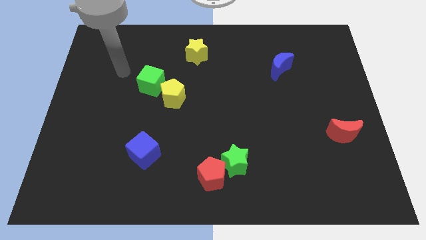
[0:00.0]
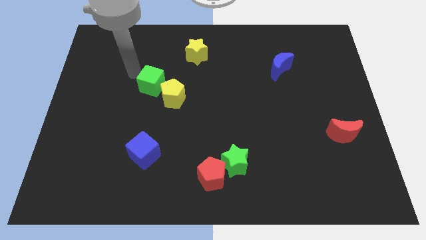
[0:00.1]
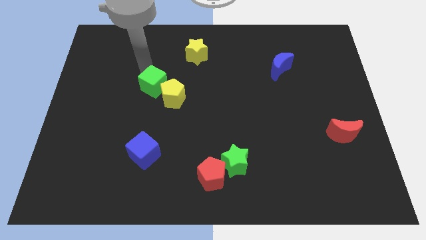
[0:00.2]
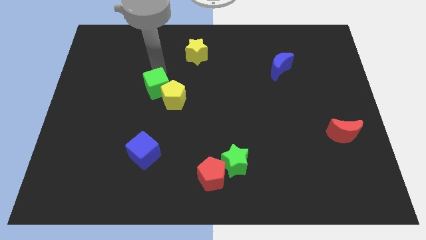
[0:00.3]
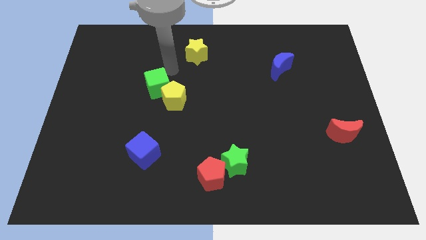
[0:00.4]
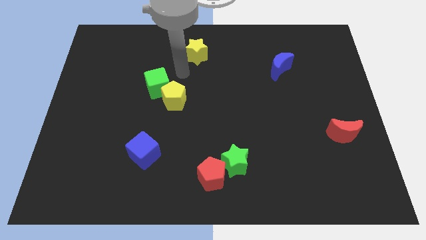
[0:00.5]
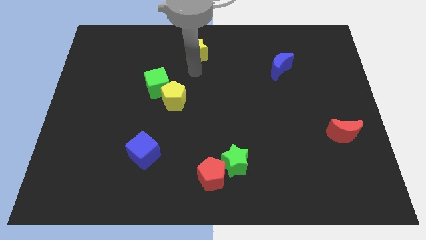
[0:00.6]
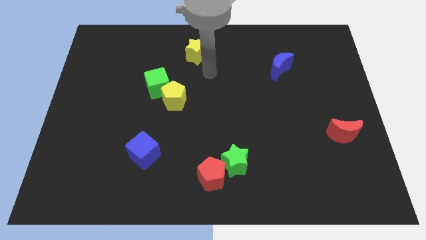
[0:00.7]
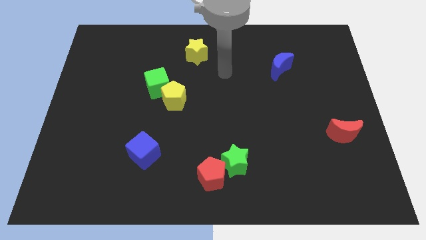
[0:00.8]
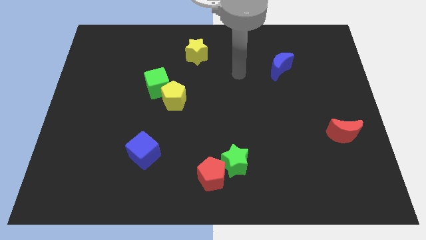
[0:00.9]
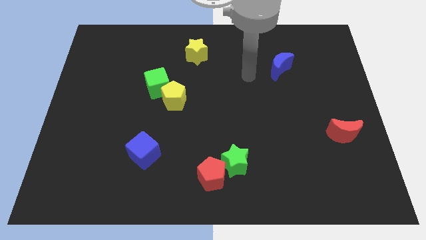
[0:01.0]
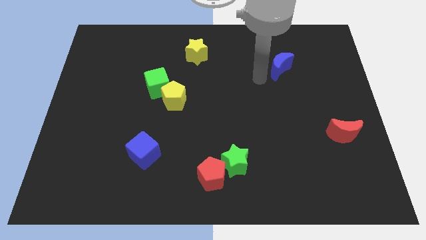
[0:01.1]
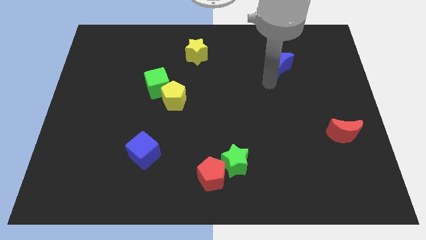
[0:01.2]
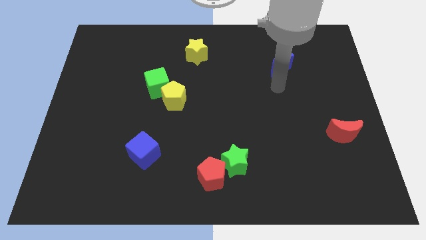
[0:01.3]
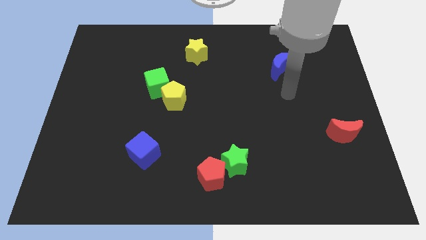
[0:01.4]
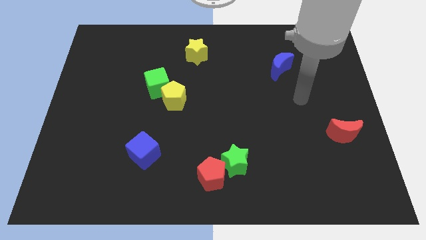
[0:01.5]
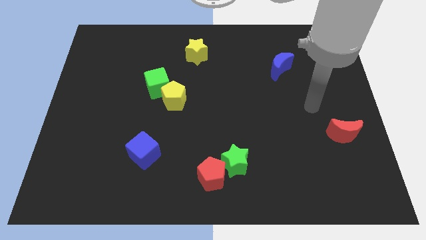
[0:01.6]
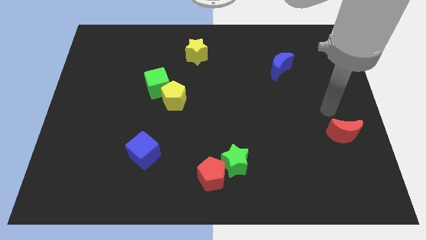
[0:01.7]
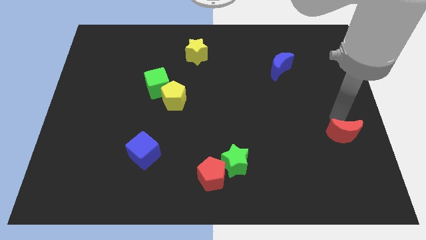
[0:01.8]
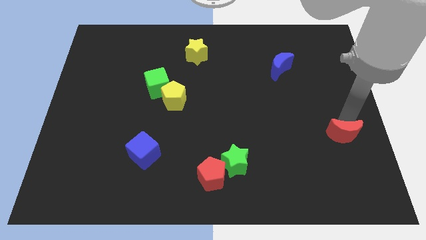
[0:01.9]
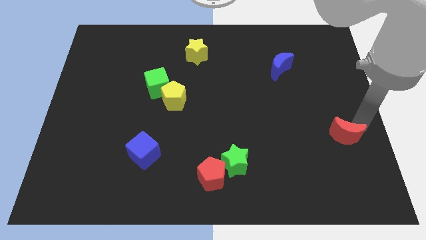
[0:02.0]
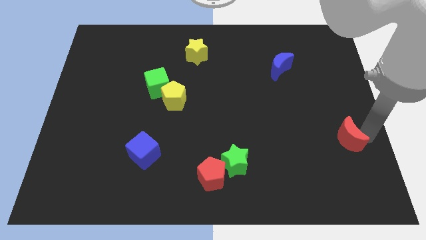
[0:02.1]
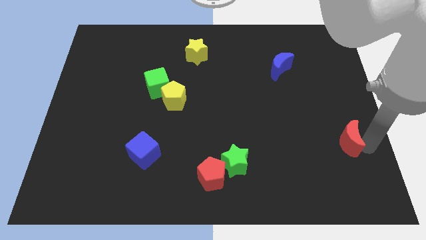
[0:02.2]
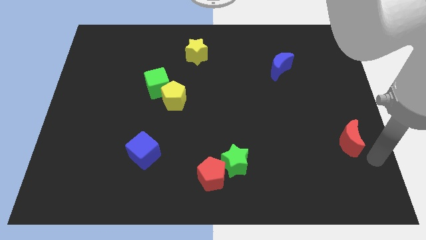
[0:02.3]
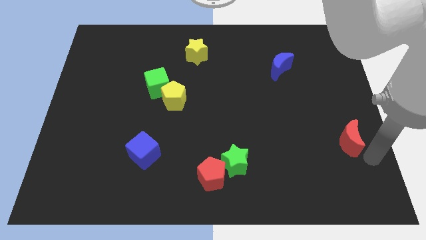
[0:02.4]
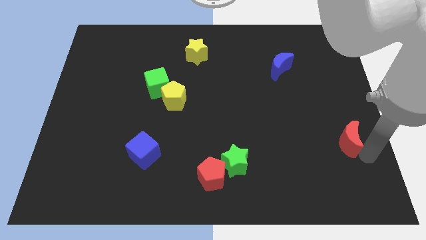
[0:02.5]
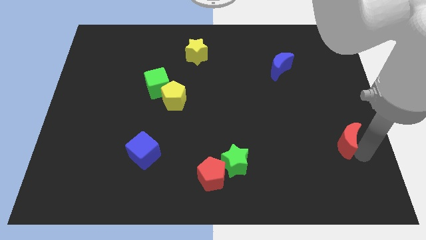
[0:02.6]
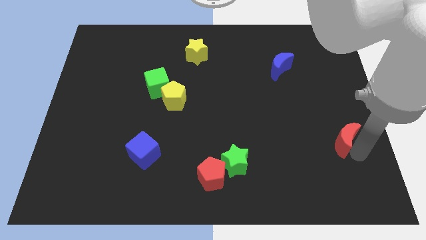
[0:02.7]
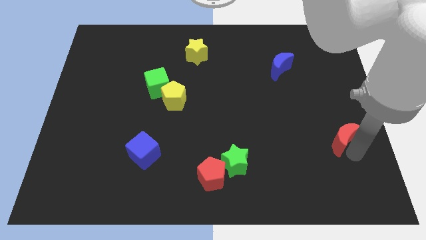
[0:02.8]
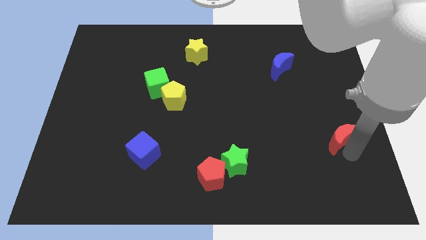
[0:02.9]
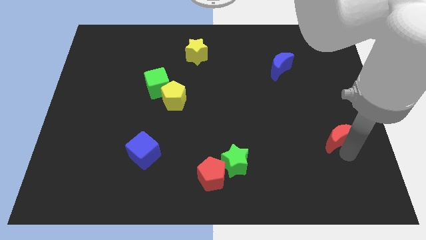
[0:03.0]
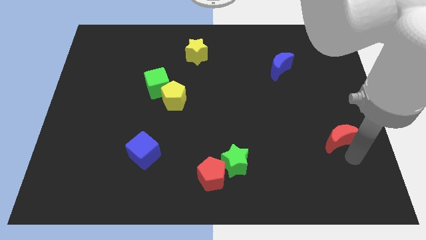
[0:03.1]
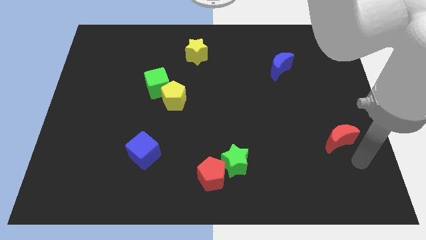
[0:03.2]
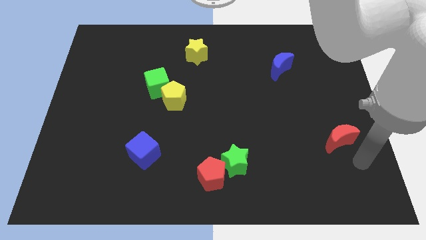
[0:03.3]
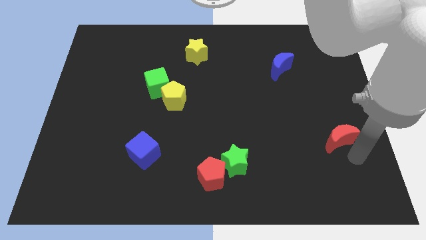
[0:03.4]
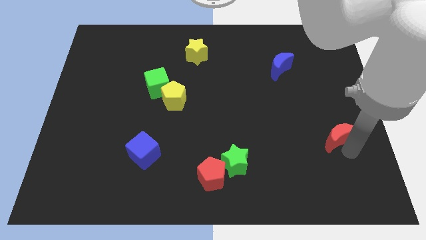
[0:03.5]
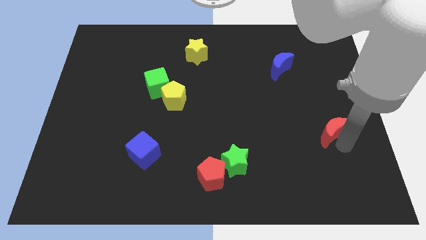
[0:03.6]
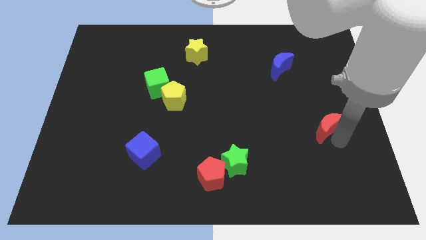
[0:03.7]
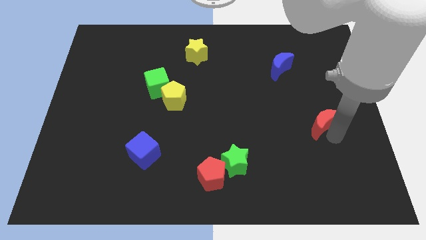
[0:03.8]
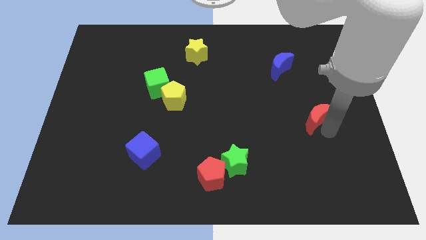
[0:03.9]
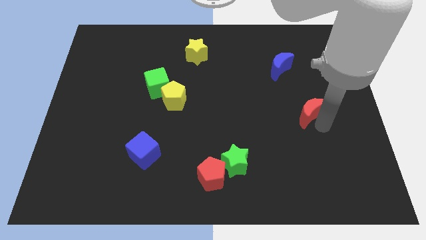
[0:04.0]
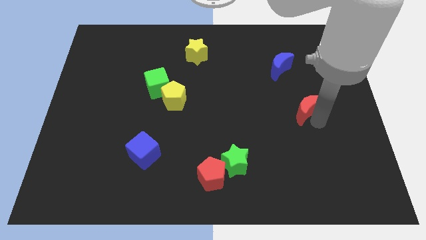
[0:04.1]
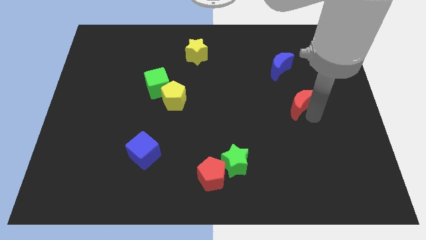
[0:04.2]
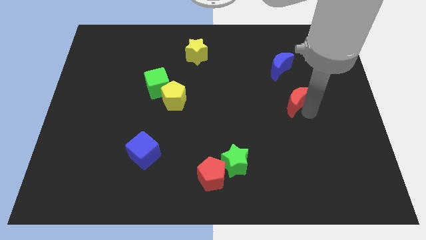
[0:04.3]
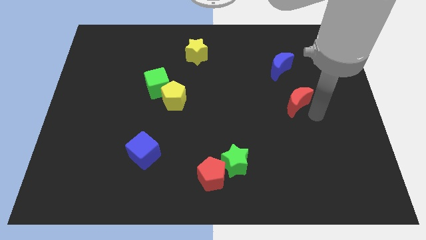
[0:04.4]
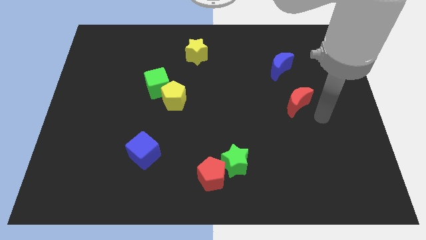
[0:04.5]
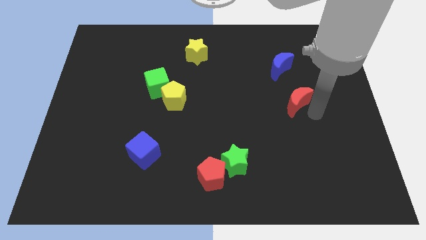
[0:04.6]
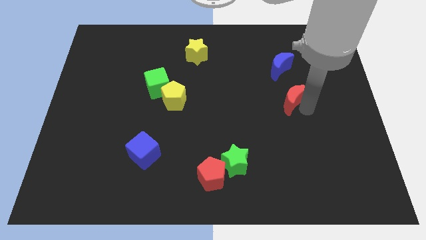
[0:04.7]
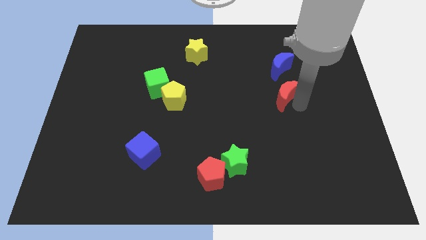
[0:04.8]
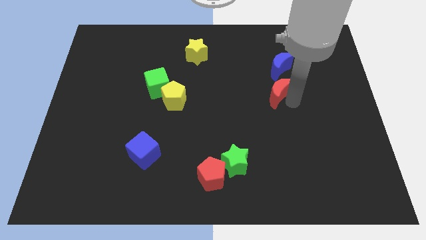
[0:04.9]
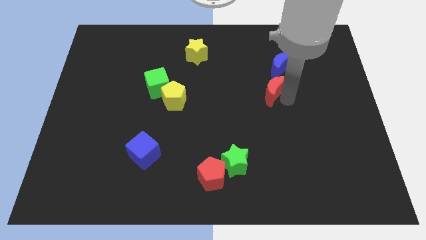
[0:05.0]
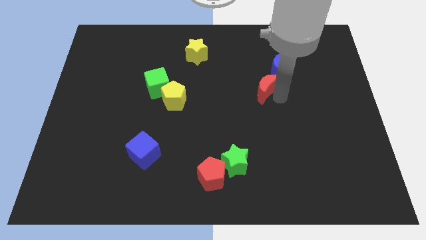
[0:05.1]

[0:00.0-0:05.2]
push the red moon upwards and then left

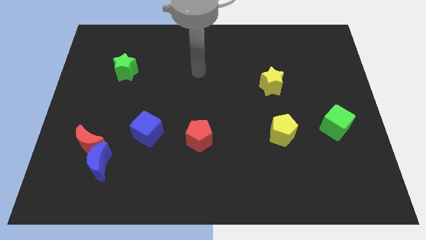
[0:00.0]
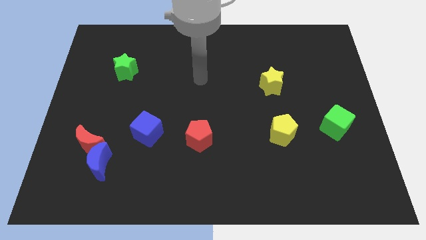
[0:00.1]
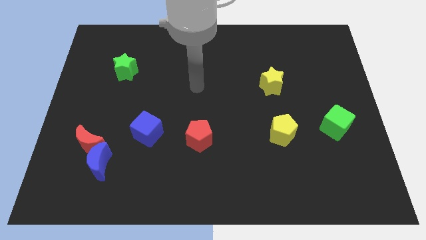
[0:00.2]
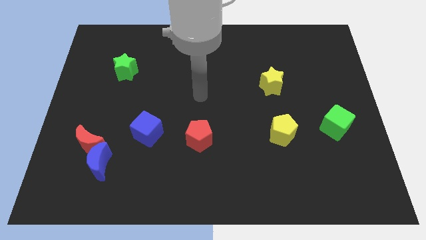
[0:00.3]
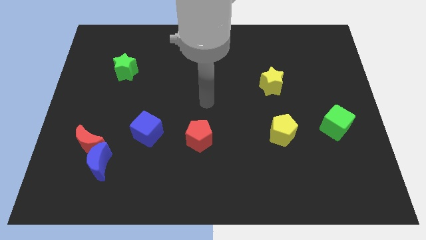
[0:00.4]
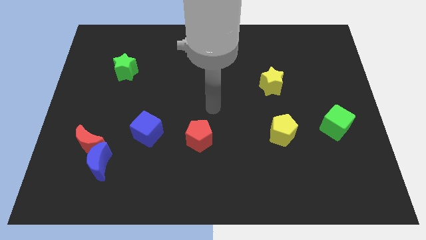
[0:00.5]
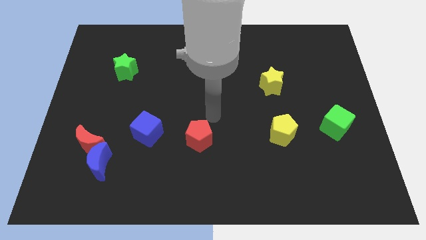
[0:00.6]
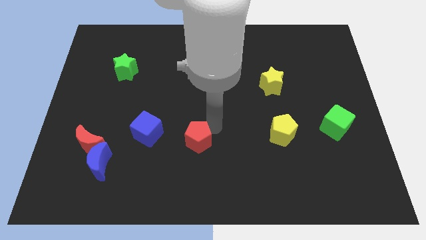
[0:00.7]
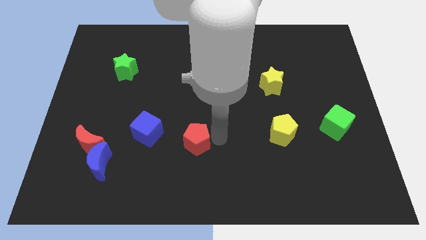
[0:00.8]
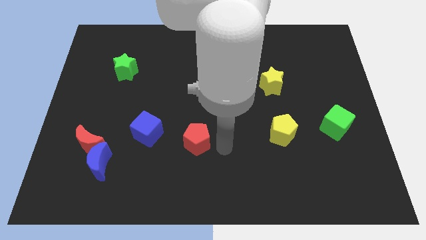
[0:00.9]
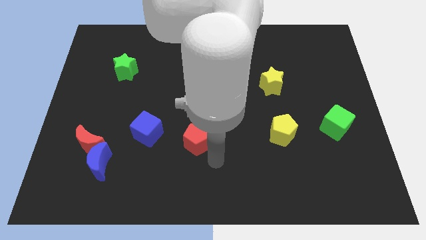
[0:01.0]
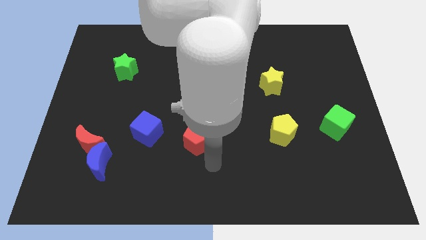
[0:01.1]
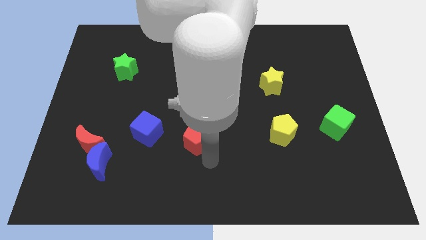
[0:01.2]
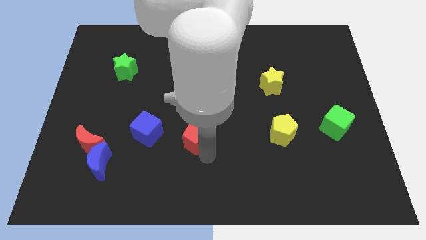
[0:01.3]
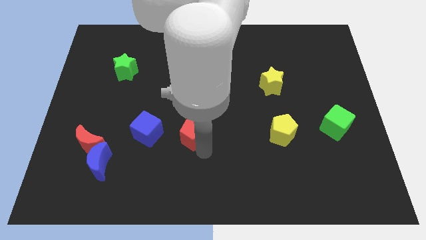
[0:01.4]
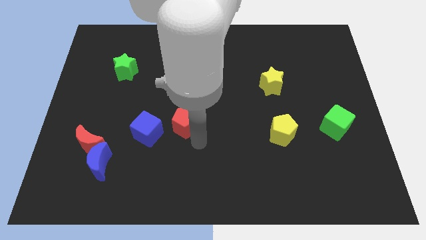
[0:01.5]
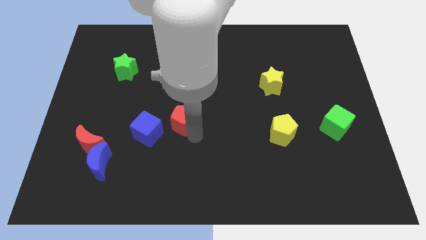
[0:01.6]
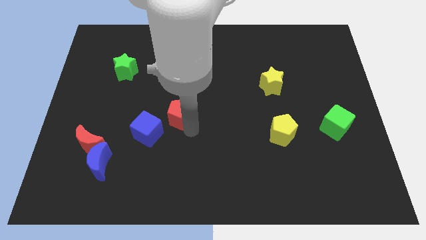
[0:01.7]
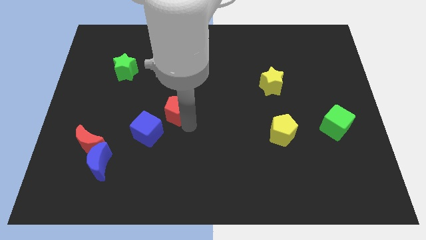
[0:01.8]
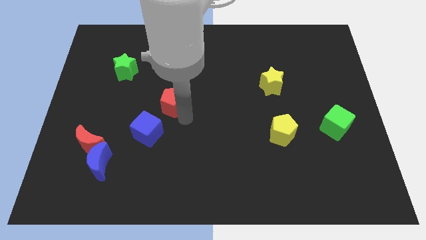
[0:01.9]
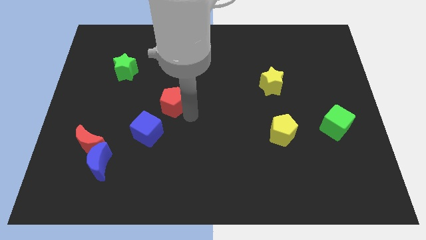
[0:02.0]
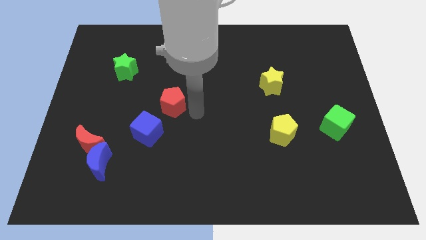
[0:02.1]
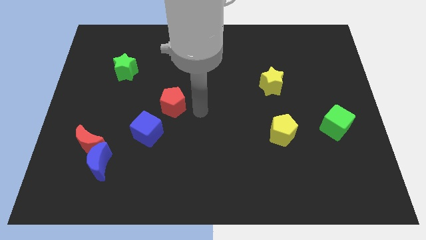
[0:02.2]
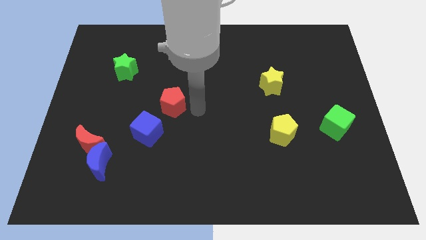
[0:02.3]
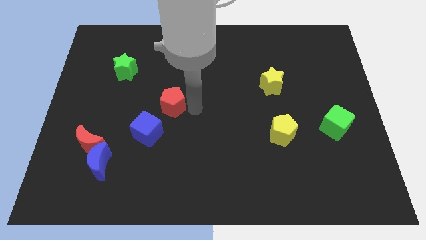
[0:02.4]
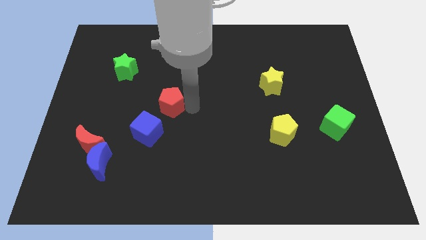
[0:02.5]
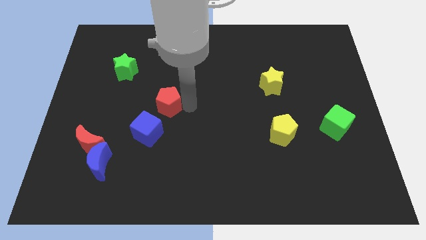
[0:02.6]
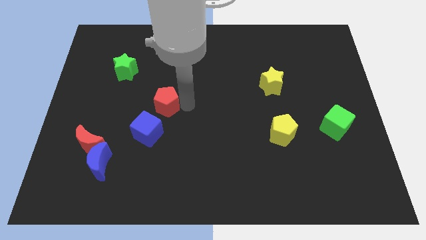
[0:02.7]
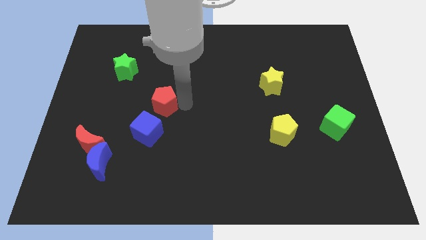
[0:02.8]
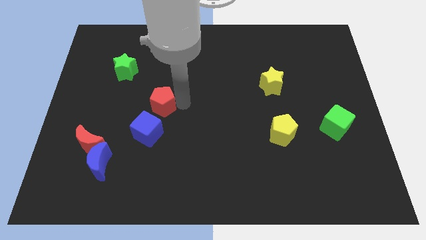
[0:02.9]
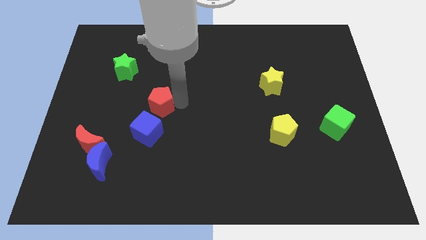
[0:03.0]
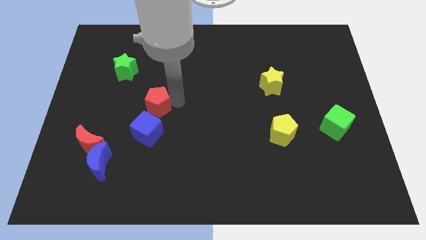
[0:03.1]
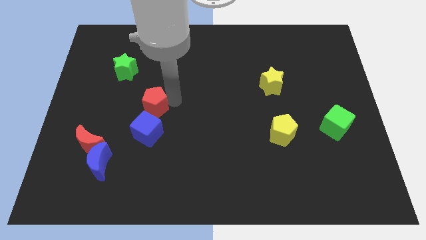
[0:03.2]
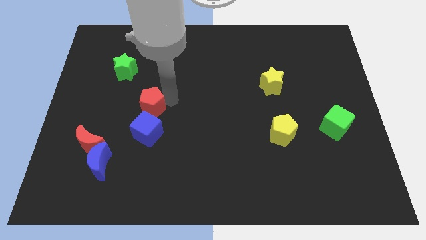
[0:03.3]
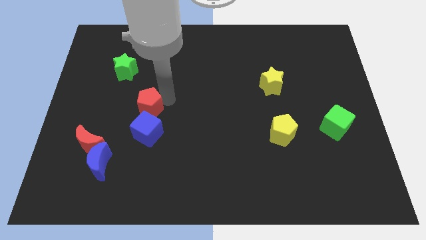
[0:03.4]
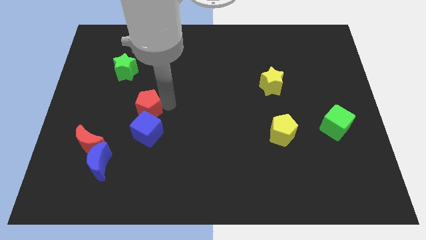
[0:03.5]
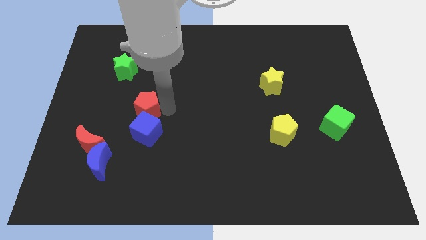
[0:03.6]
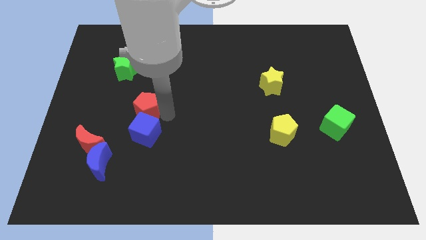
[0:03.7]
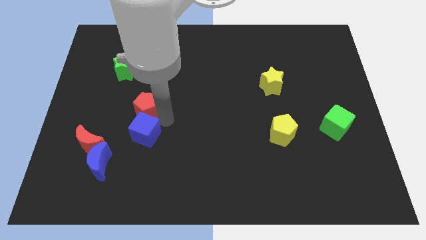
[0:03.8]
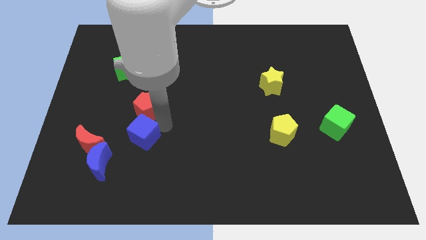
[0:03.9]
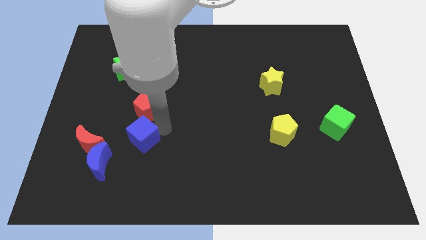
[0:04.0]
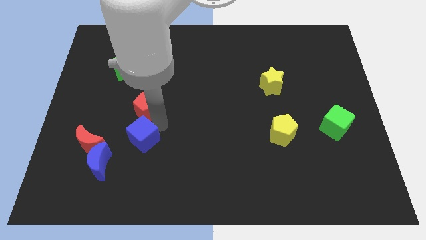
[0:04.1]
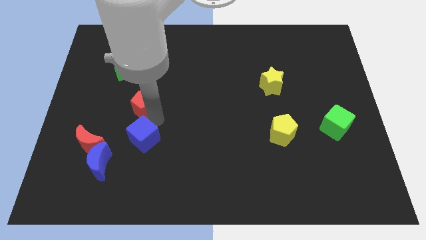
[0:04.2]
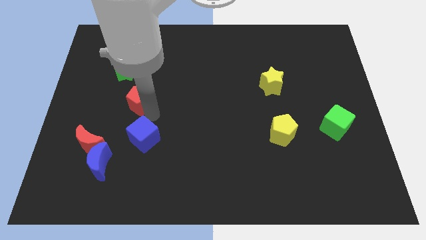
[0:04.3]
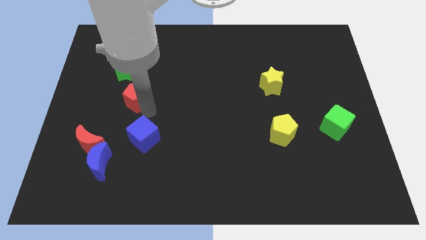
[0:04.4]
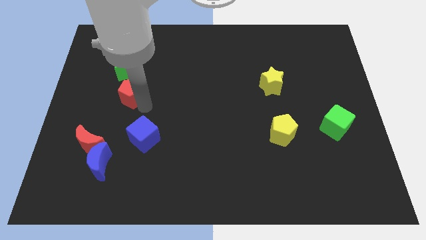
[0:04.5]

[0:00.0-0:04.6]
push the red pentagon upwards and left
